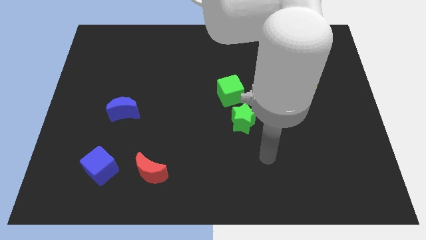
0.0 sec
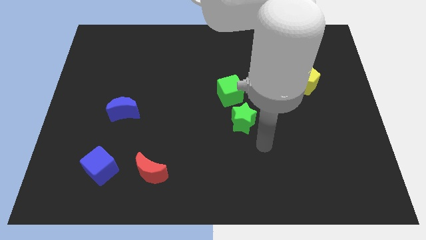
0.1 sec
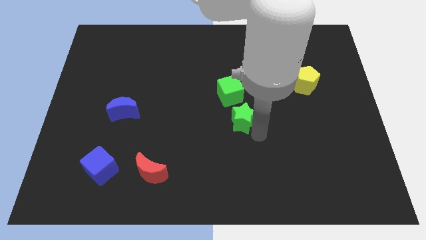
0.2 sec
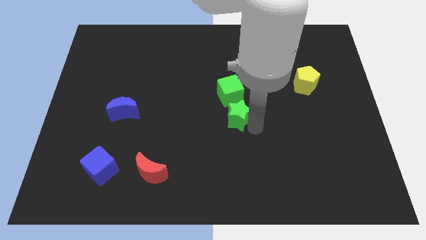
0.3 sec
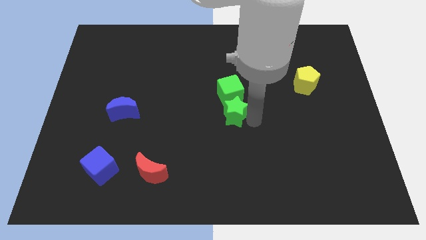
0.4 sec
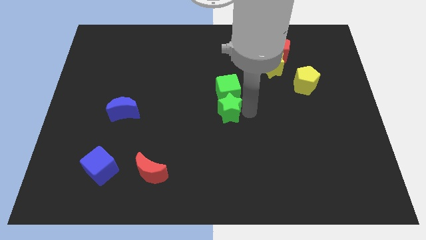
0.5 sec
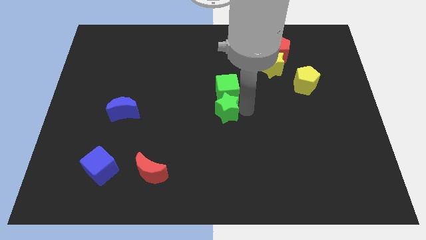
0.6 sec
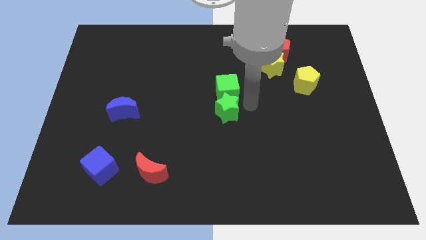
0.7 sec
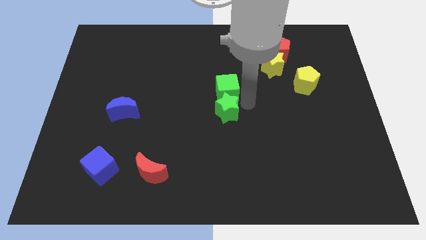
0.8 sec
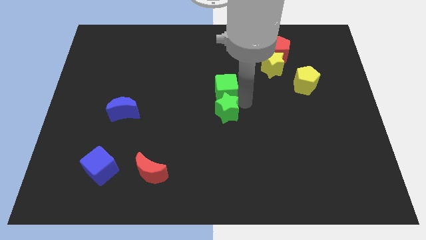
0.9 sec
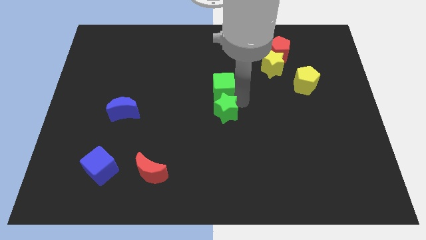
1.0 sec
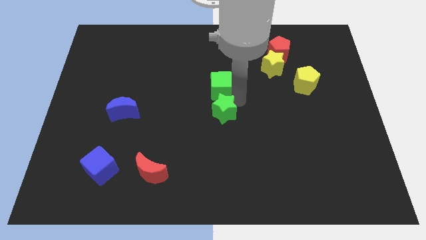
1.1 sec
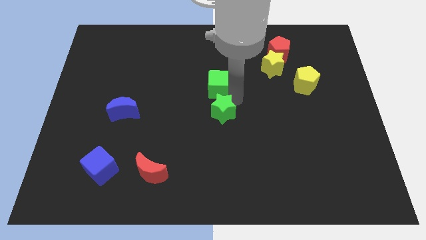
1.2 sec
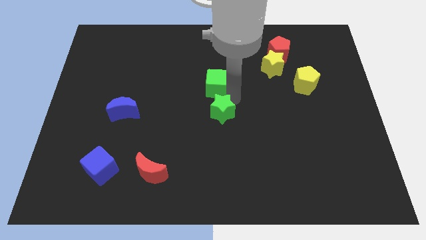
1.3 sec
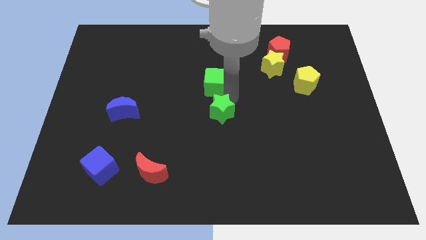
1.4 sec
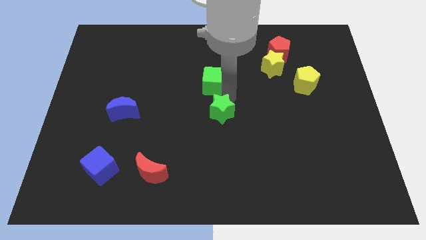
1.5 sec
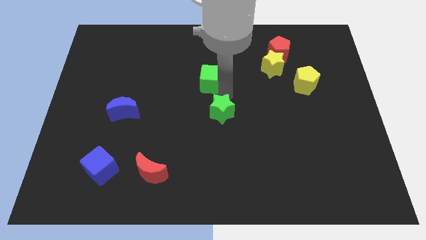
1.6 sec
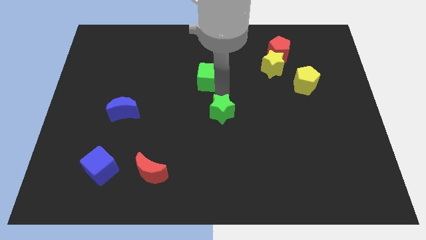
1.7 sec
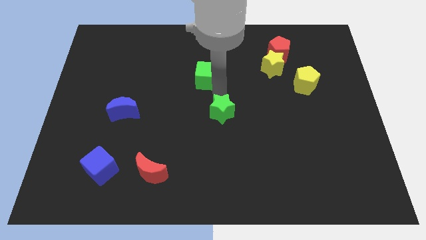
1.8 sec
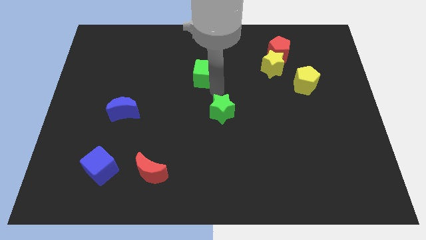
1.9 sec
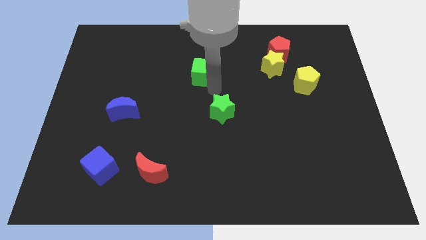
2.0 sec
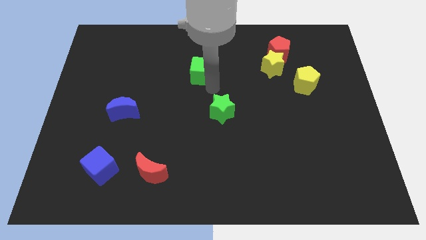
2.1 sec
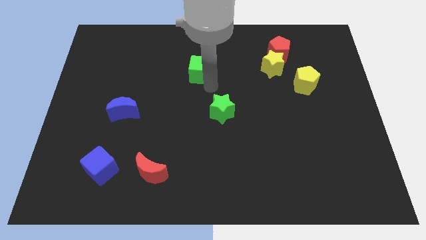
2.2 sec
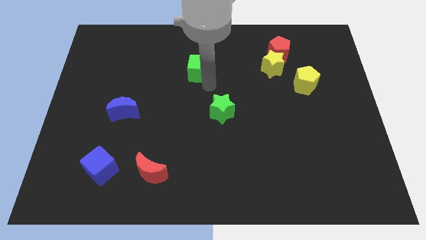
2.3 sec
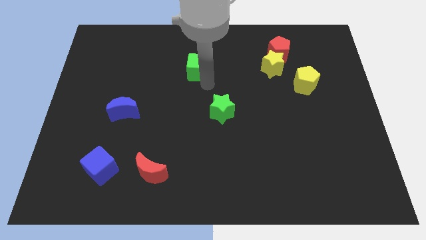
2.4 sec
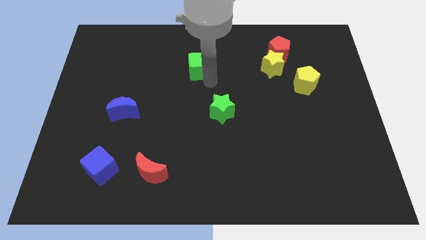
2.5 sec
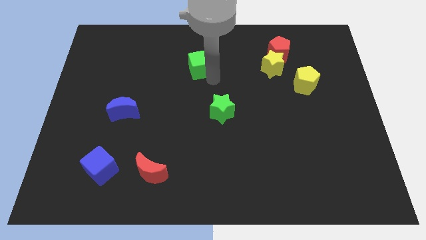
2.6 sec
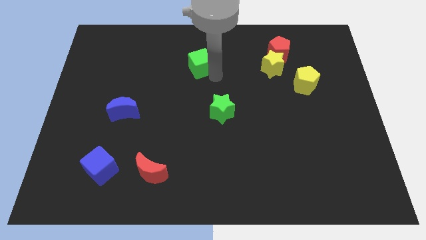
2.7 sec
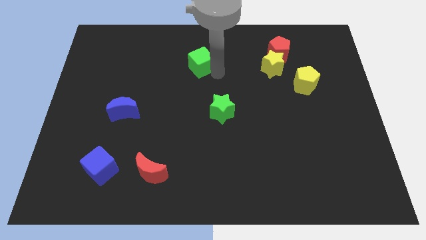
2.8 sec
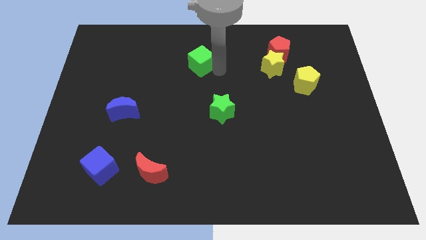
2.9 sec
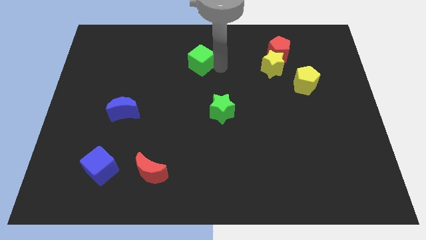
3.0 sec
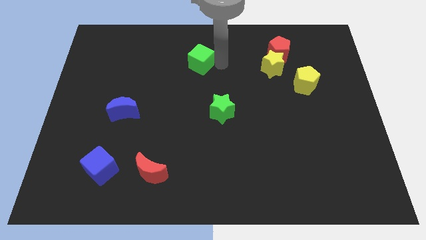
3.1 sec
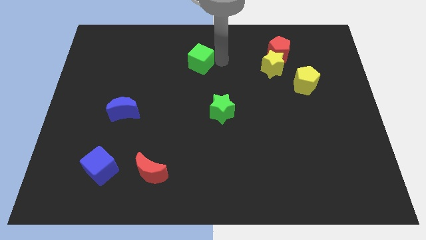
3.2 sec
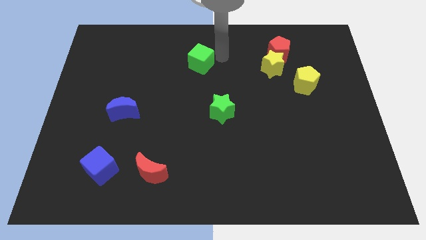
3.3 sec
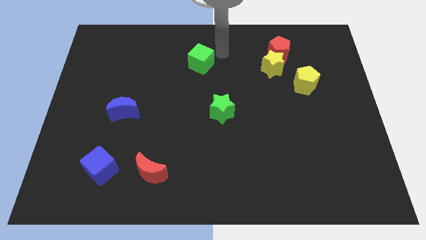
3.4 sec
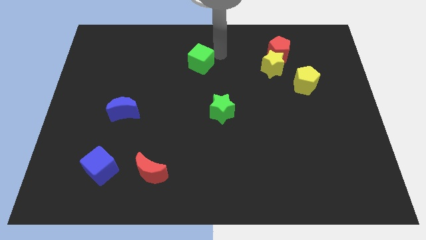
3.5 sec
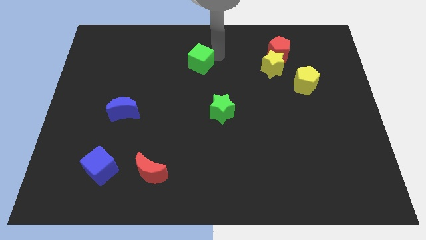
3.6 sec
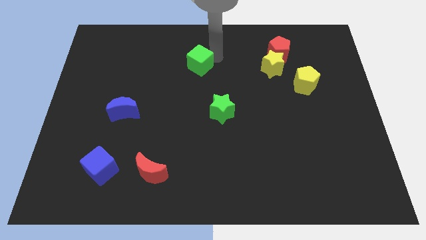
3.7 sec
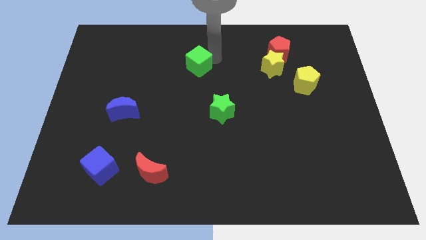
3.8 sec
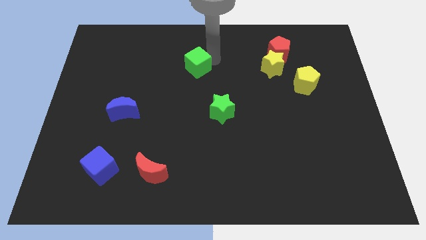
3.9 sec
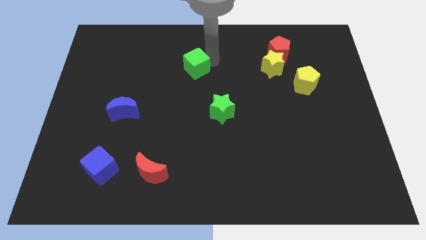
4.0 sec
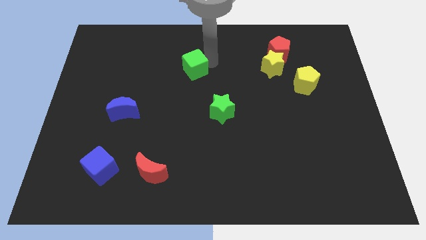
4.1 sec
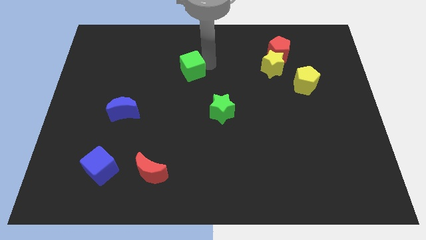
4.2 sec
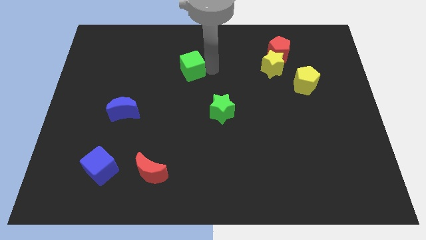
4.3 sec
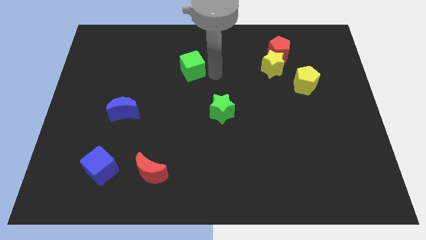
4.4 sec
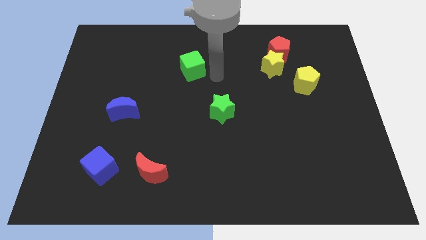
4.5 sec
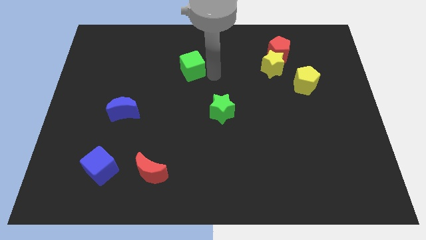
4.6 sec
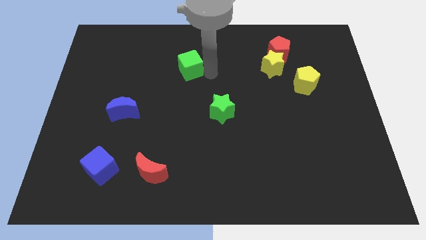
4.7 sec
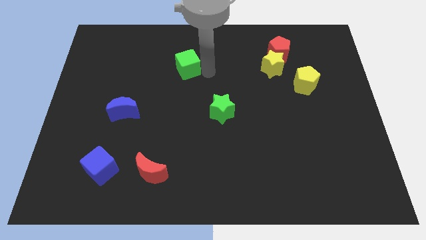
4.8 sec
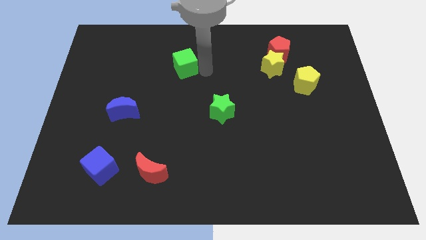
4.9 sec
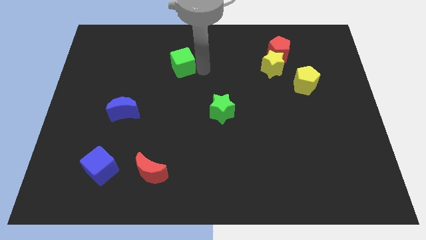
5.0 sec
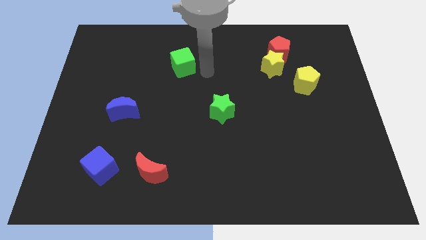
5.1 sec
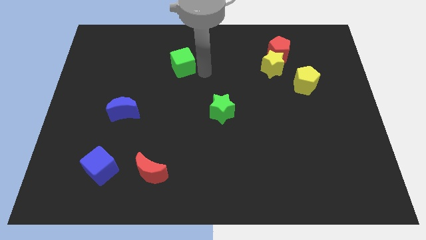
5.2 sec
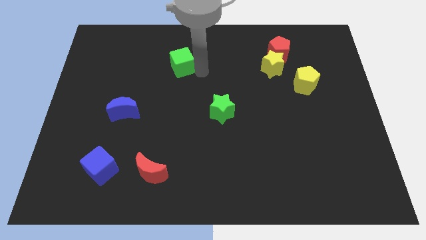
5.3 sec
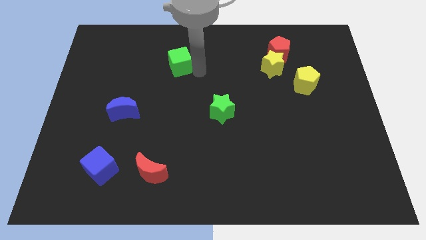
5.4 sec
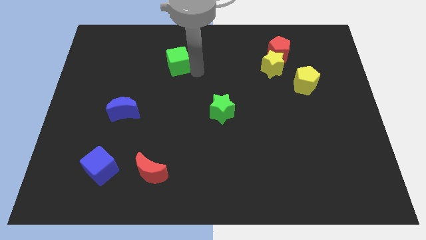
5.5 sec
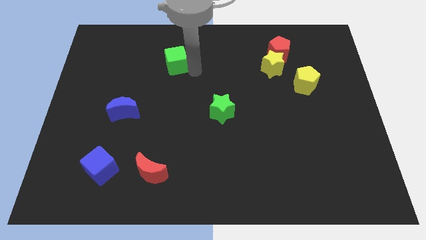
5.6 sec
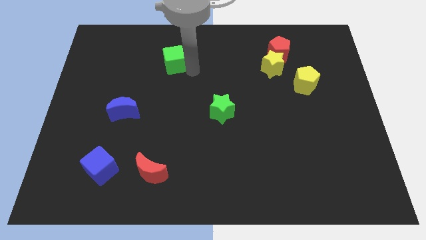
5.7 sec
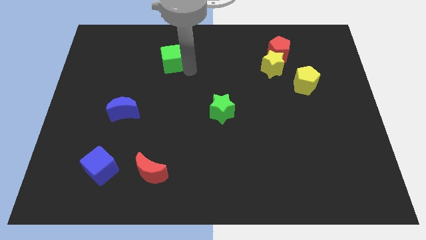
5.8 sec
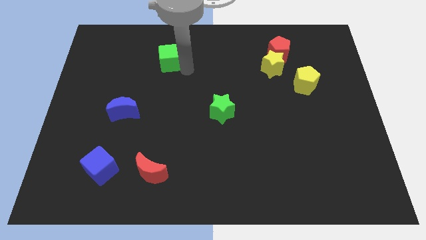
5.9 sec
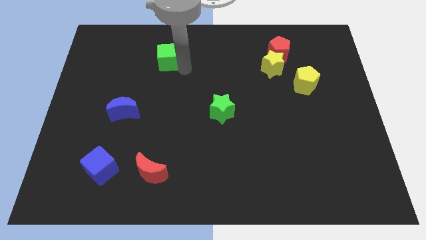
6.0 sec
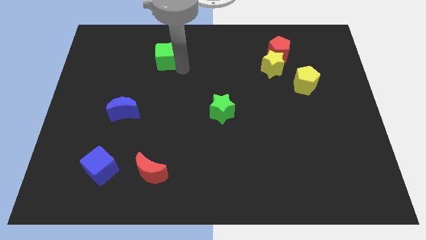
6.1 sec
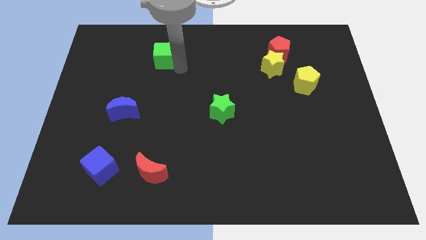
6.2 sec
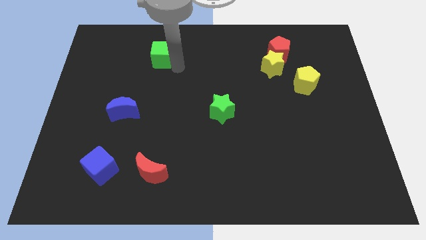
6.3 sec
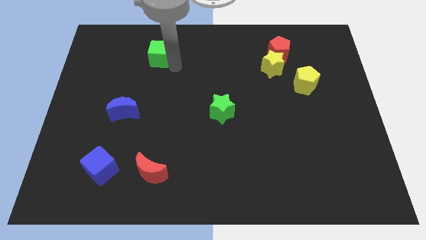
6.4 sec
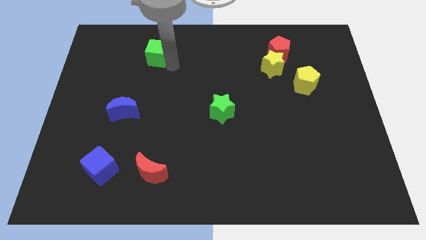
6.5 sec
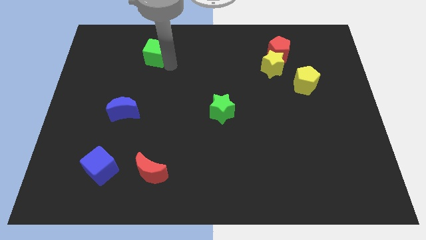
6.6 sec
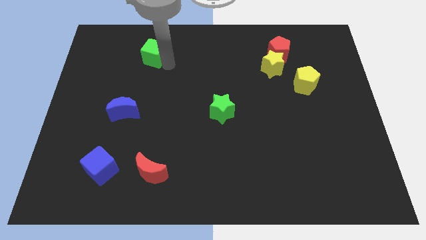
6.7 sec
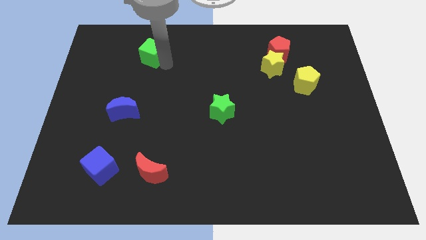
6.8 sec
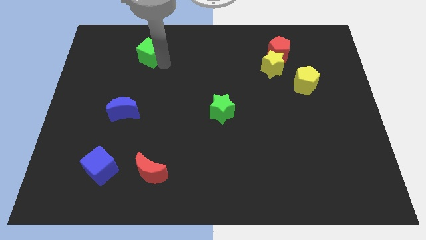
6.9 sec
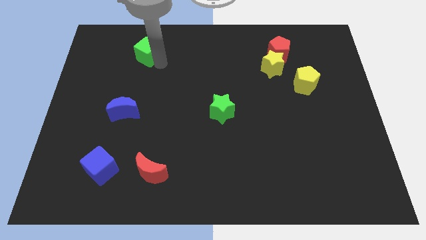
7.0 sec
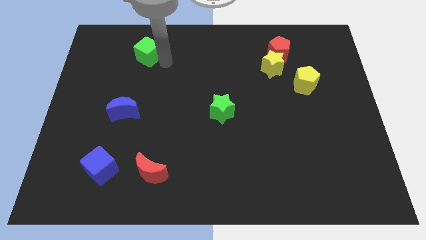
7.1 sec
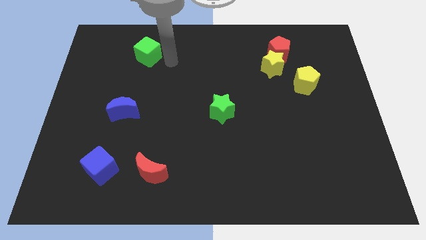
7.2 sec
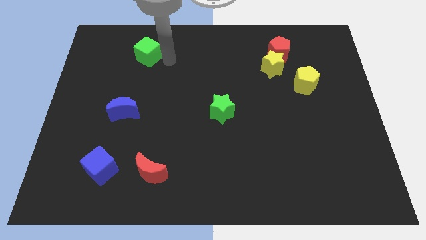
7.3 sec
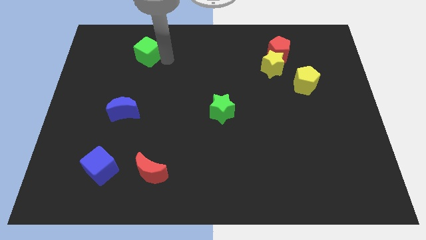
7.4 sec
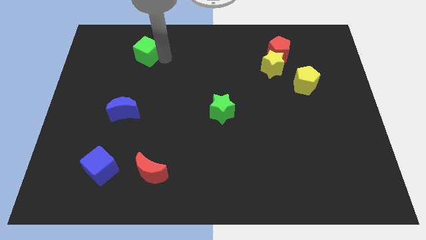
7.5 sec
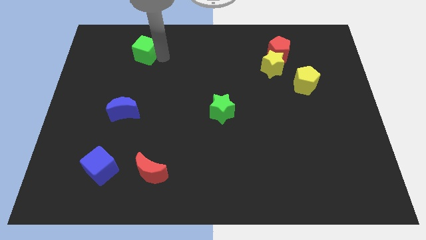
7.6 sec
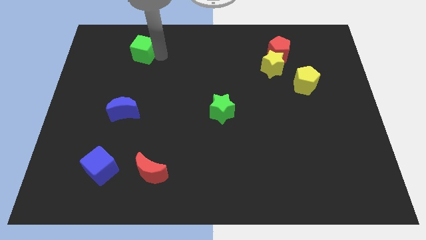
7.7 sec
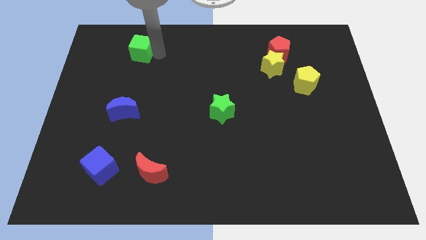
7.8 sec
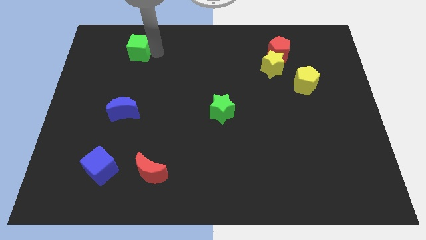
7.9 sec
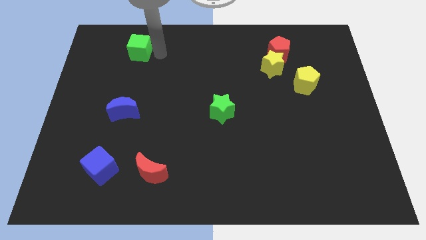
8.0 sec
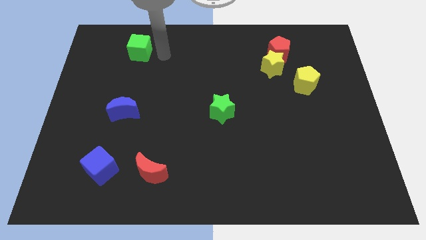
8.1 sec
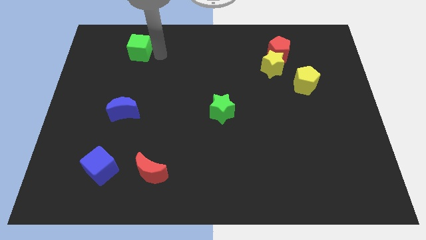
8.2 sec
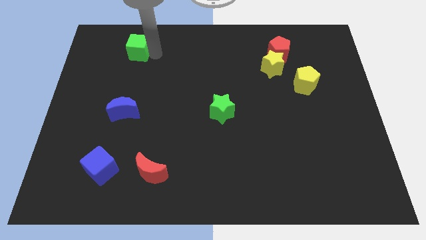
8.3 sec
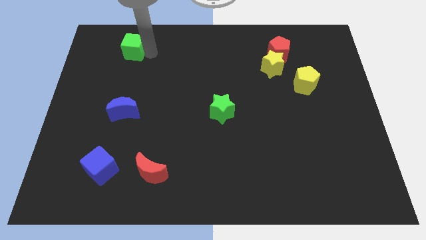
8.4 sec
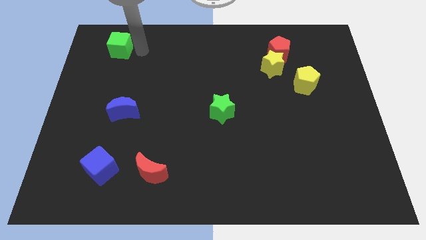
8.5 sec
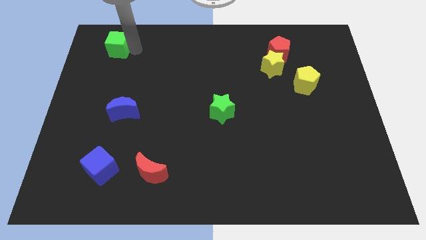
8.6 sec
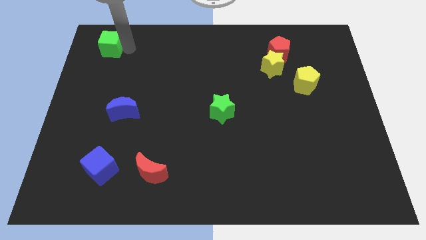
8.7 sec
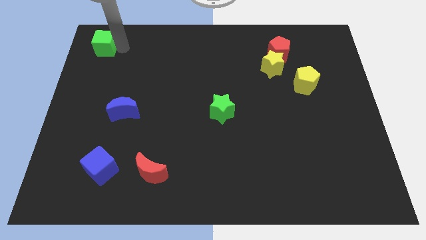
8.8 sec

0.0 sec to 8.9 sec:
move the green cube to the upper left corner
